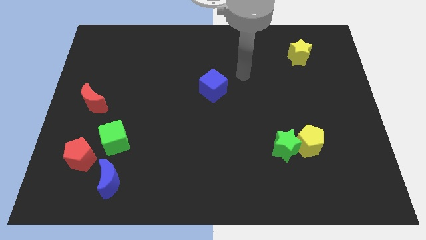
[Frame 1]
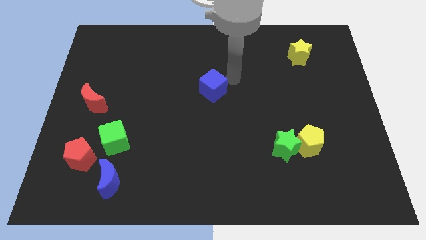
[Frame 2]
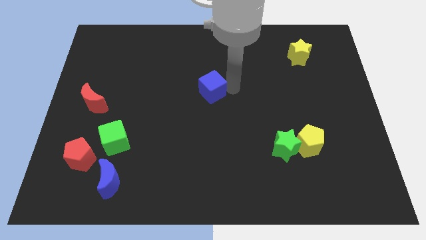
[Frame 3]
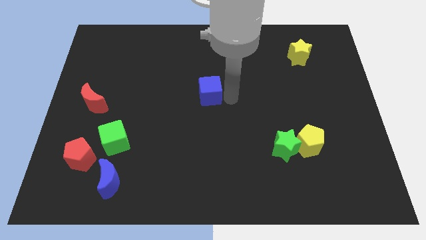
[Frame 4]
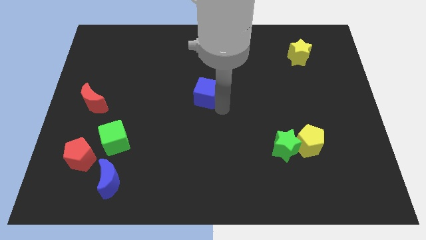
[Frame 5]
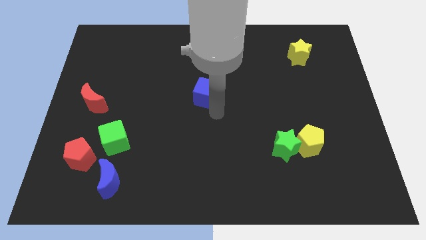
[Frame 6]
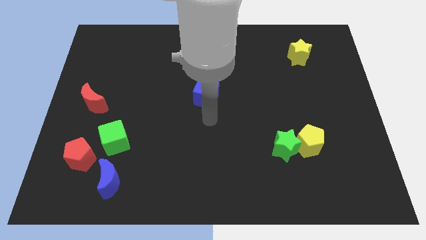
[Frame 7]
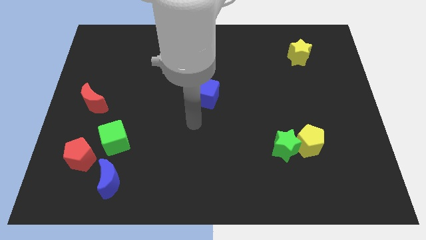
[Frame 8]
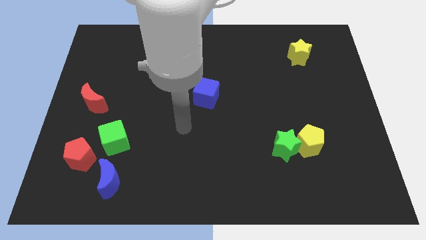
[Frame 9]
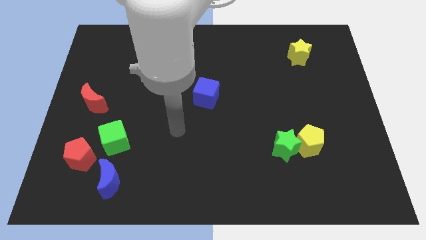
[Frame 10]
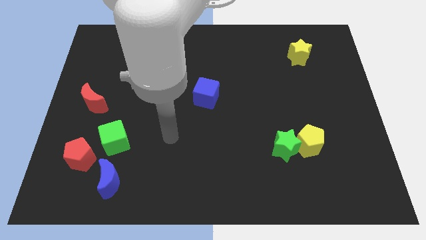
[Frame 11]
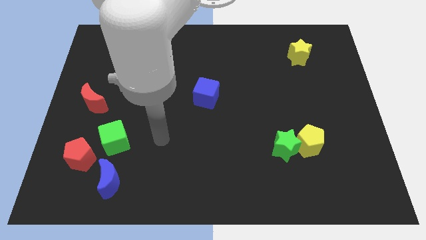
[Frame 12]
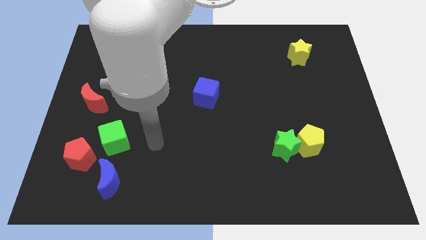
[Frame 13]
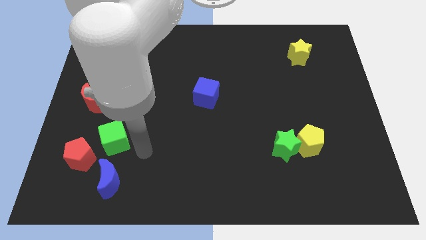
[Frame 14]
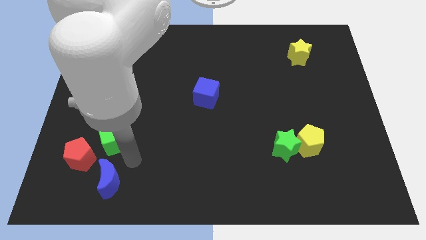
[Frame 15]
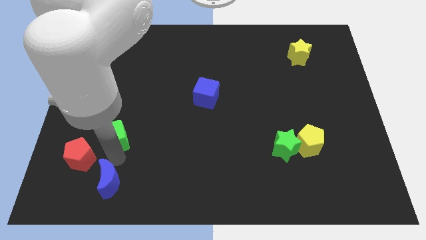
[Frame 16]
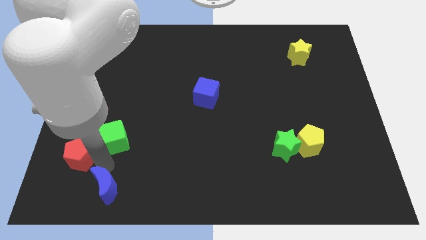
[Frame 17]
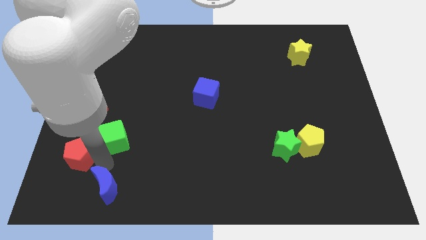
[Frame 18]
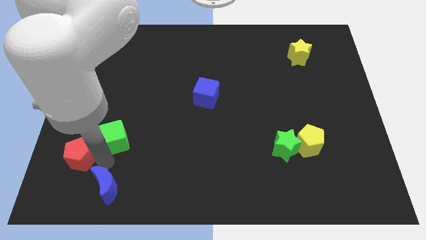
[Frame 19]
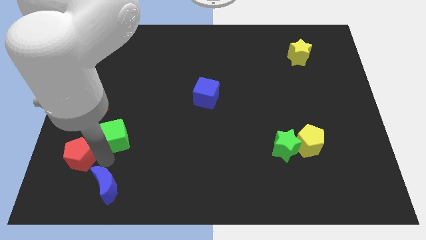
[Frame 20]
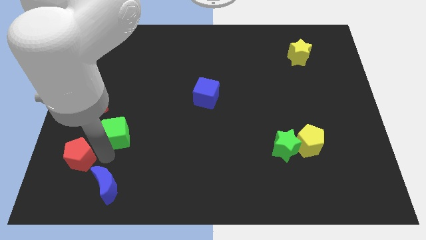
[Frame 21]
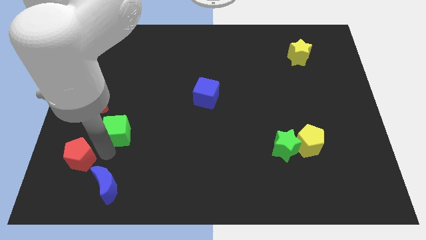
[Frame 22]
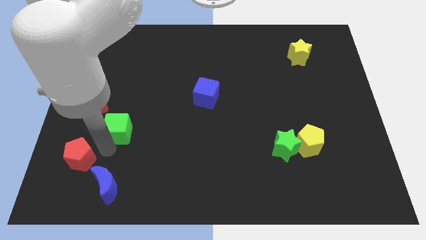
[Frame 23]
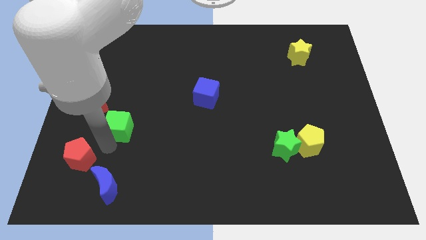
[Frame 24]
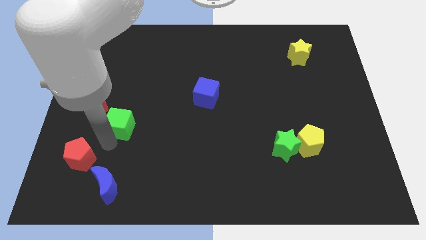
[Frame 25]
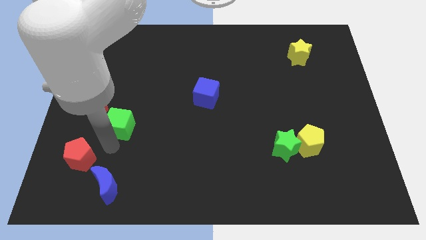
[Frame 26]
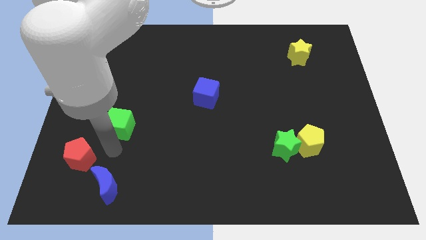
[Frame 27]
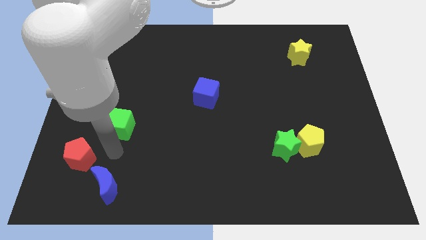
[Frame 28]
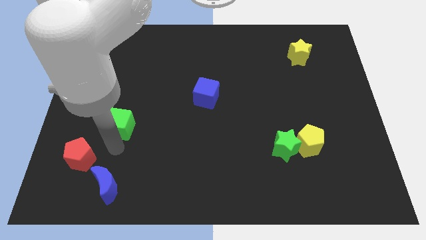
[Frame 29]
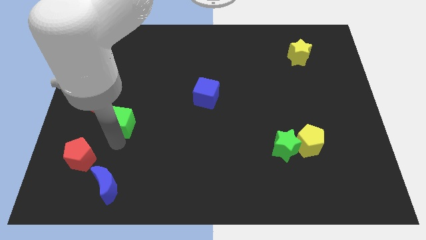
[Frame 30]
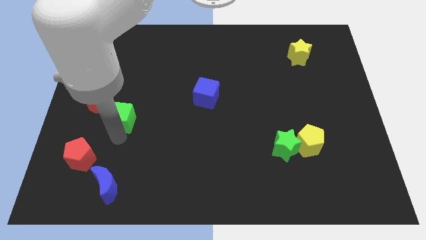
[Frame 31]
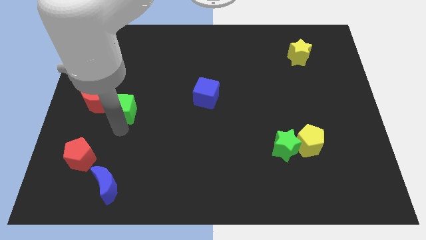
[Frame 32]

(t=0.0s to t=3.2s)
push the green cube upwards a bit

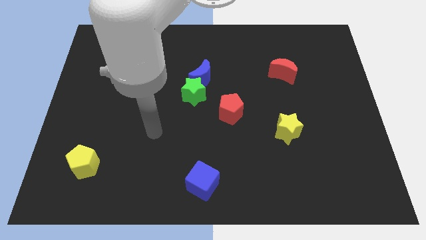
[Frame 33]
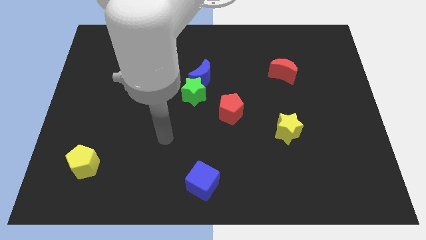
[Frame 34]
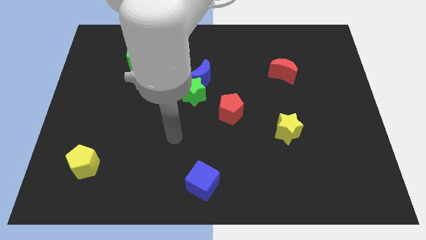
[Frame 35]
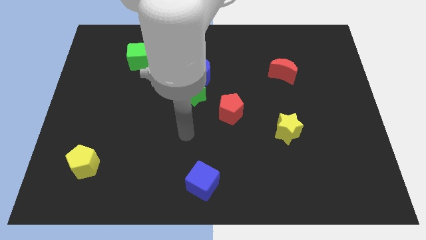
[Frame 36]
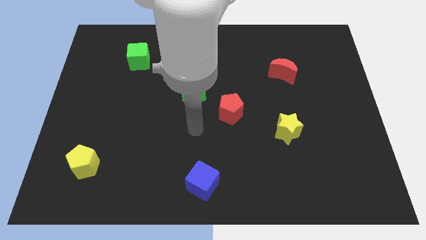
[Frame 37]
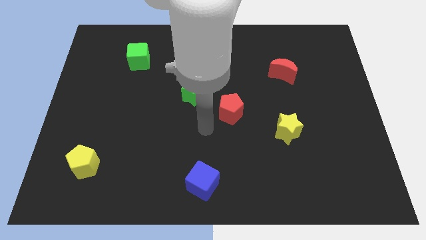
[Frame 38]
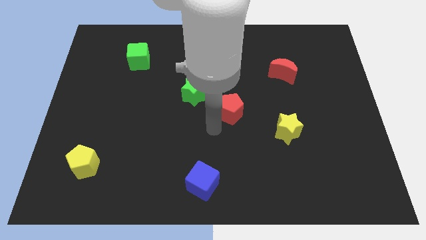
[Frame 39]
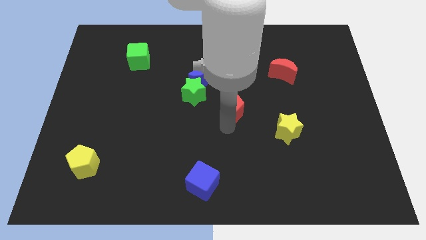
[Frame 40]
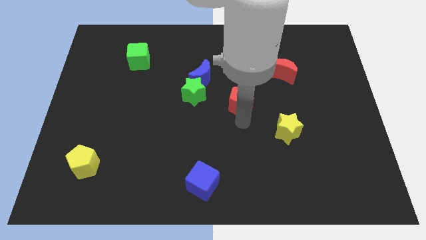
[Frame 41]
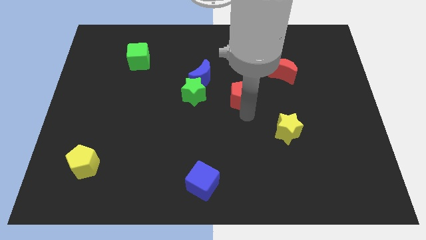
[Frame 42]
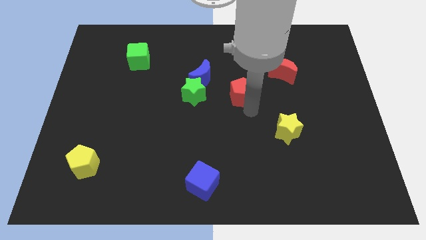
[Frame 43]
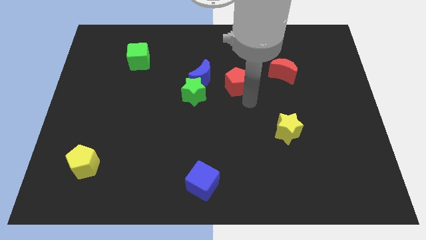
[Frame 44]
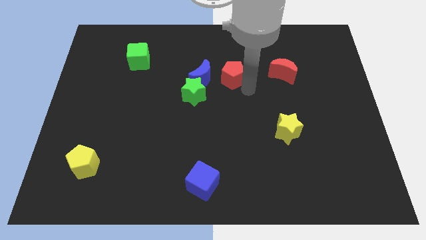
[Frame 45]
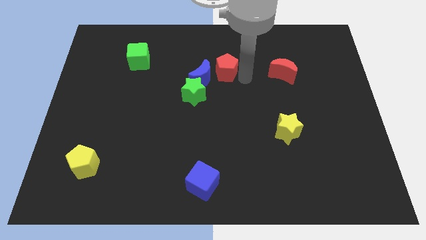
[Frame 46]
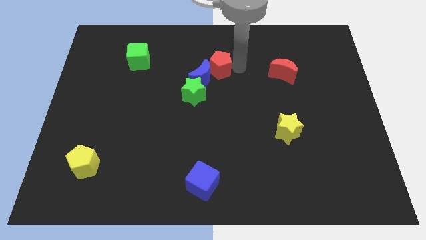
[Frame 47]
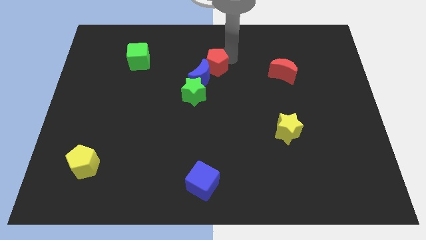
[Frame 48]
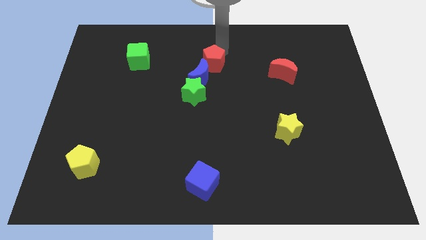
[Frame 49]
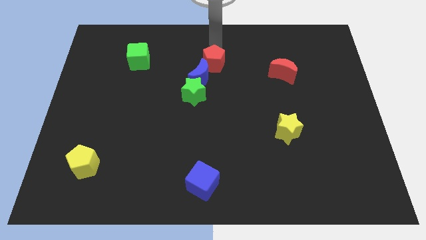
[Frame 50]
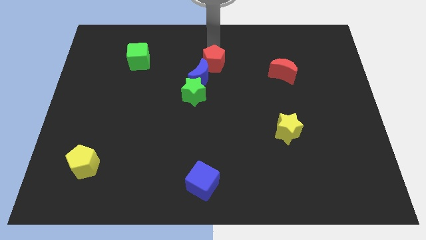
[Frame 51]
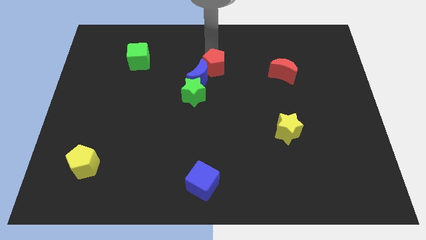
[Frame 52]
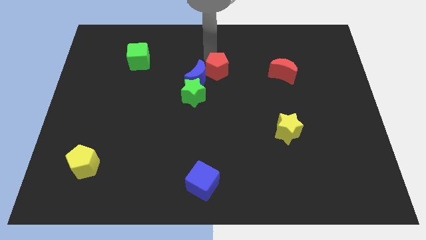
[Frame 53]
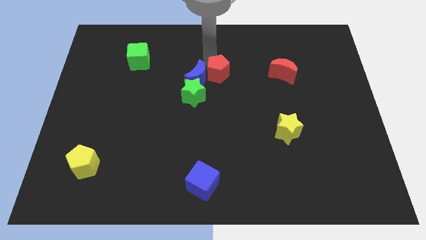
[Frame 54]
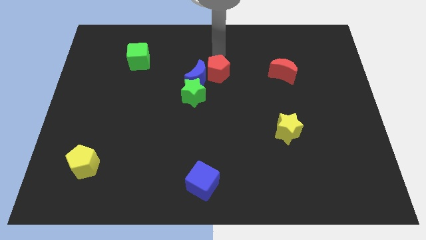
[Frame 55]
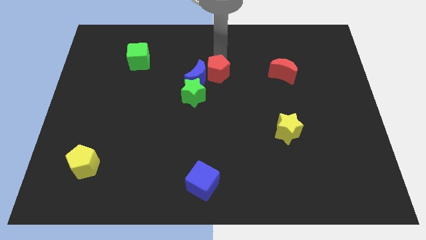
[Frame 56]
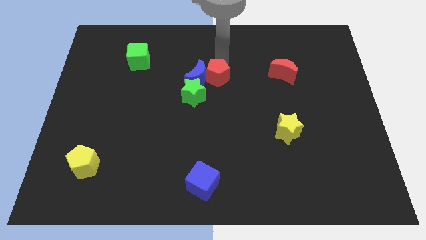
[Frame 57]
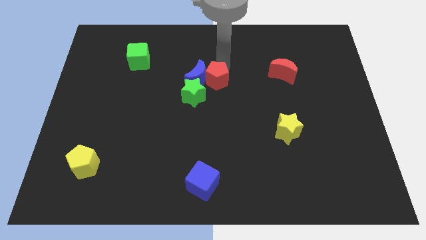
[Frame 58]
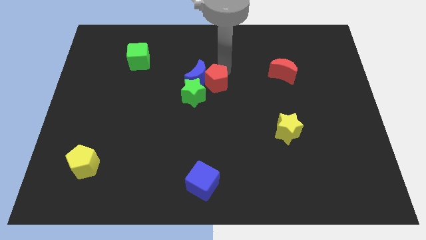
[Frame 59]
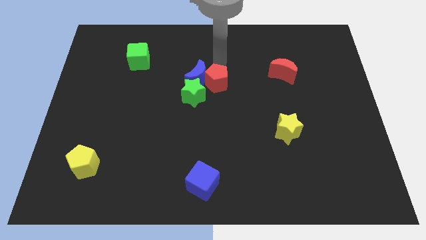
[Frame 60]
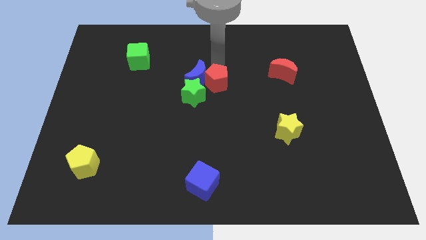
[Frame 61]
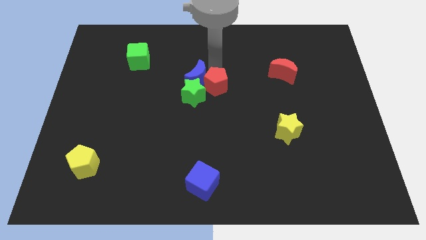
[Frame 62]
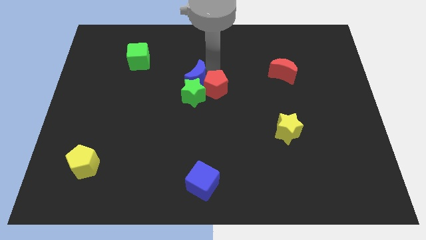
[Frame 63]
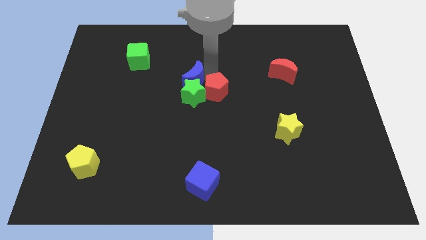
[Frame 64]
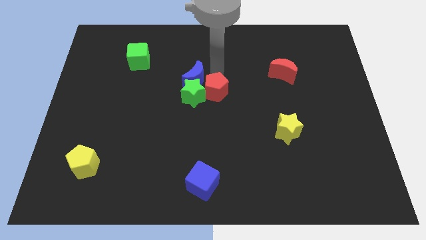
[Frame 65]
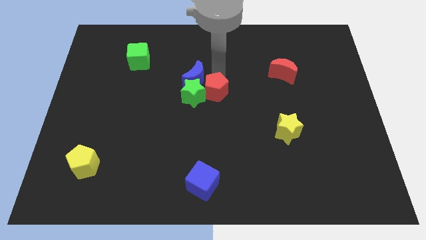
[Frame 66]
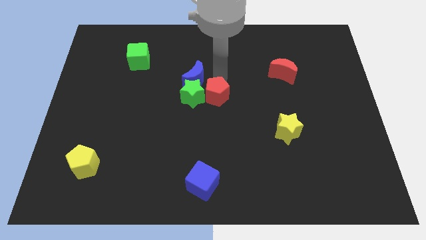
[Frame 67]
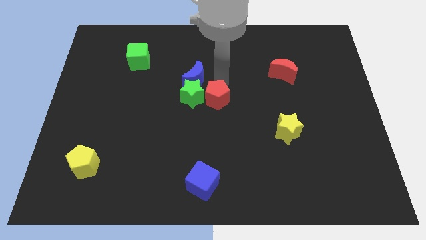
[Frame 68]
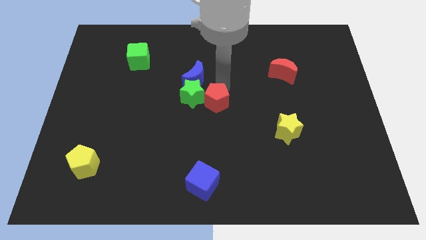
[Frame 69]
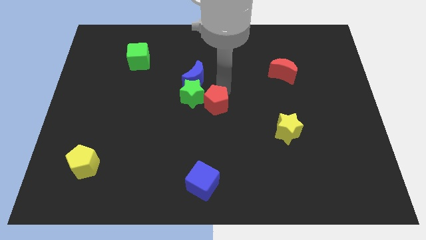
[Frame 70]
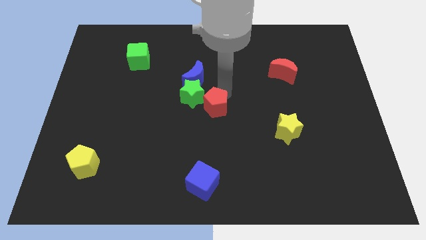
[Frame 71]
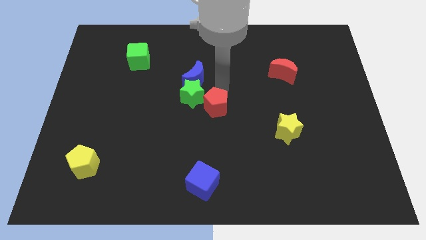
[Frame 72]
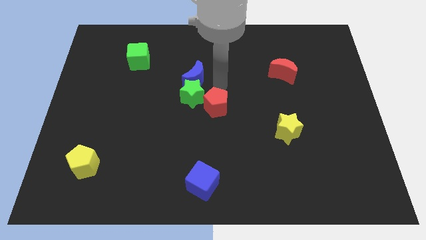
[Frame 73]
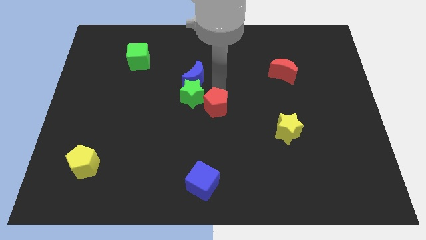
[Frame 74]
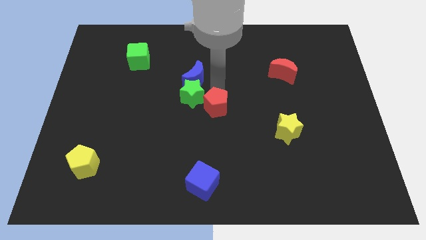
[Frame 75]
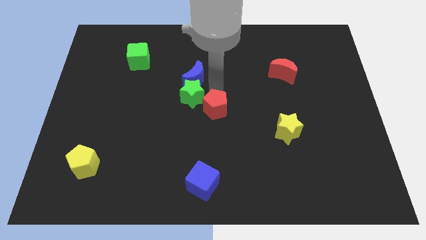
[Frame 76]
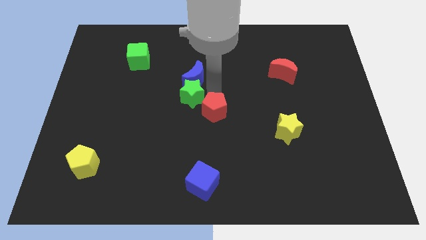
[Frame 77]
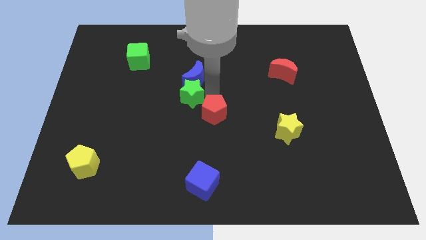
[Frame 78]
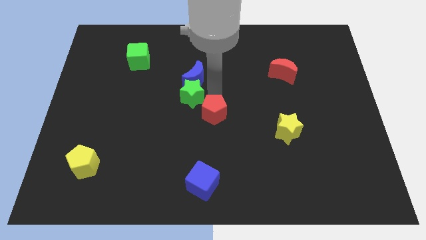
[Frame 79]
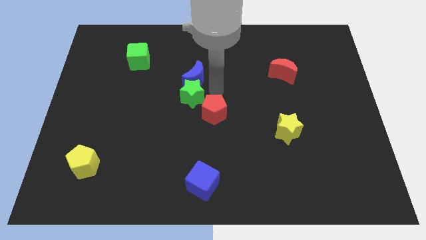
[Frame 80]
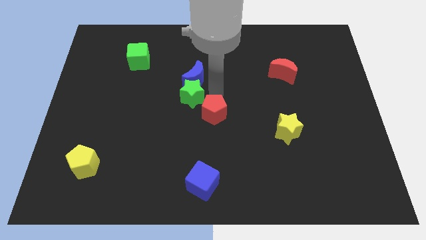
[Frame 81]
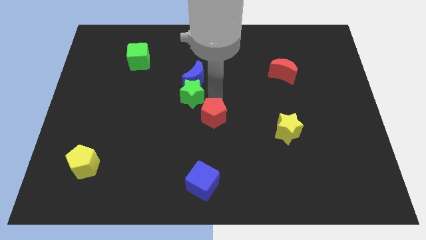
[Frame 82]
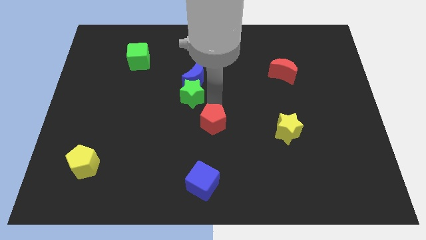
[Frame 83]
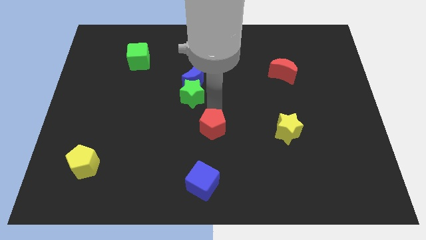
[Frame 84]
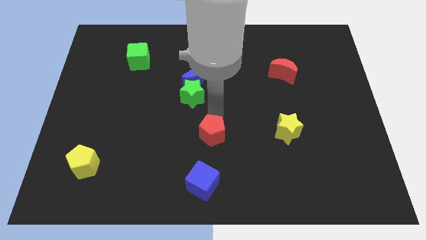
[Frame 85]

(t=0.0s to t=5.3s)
move the red pentagon a little down and left diagonally

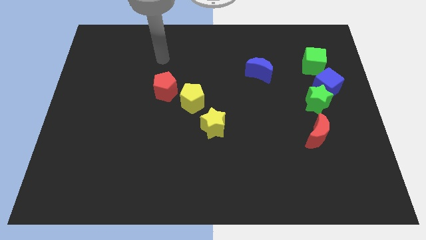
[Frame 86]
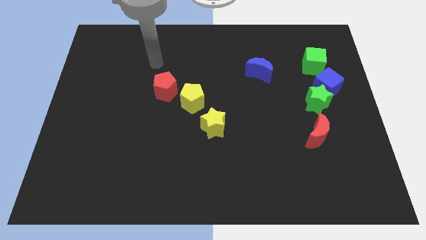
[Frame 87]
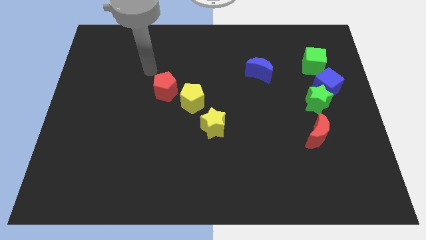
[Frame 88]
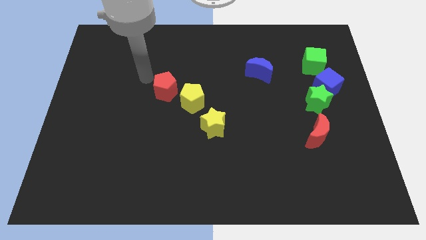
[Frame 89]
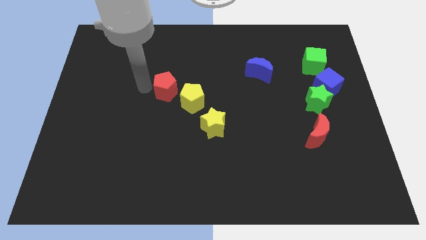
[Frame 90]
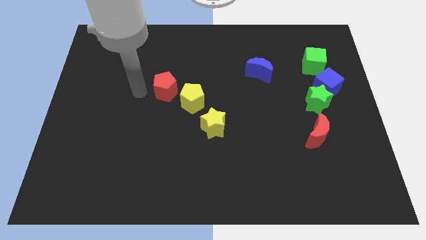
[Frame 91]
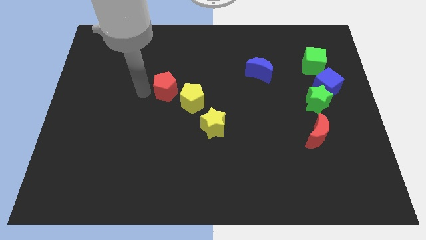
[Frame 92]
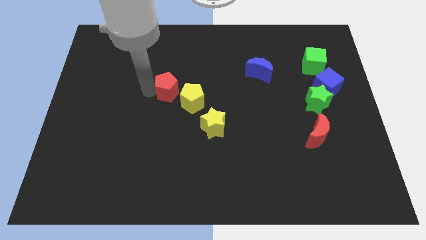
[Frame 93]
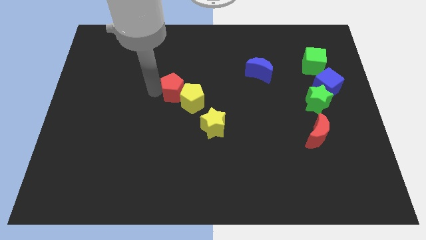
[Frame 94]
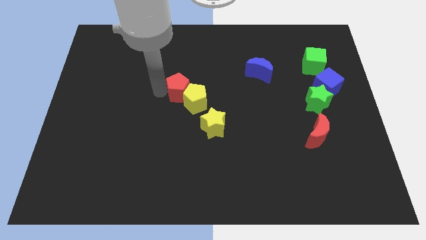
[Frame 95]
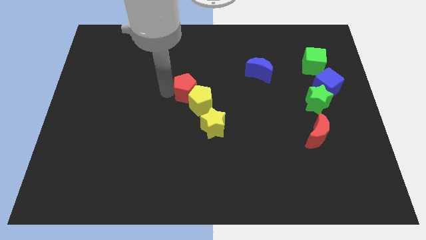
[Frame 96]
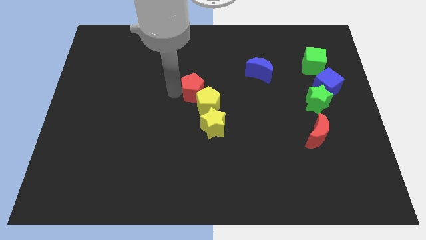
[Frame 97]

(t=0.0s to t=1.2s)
slightly push the red pentagon right
